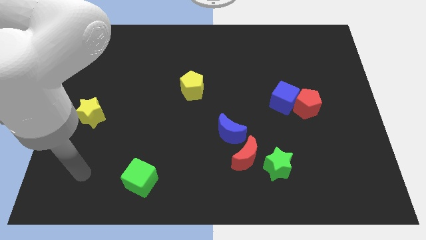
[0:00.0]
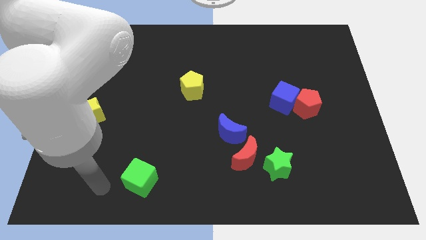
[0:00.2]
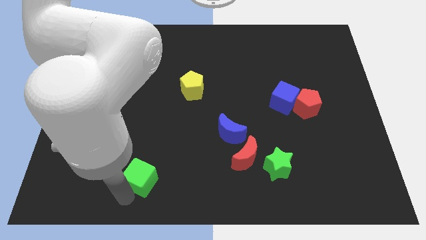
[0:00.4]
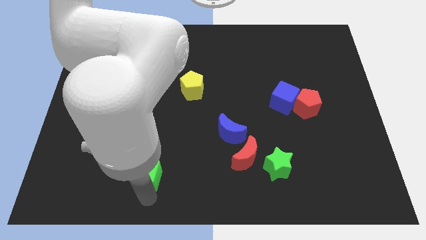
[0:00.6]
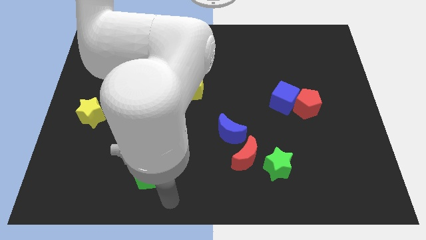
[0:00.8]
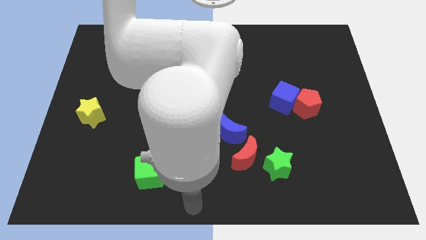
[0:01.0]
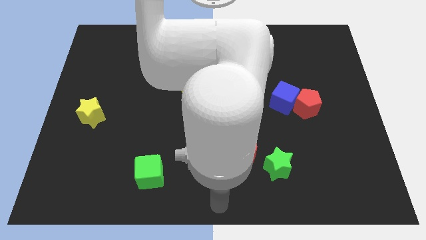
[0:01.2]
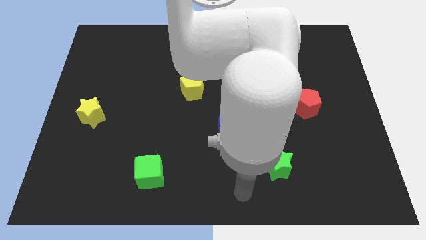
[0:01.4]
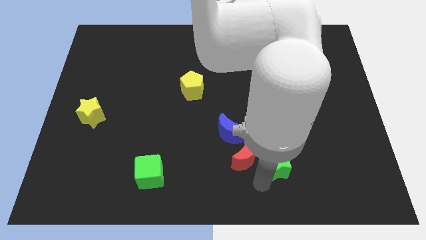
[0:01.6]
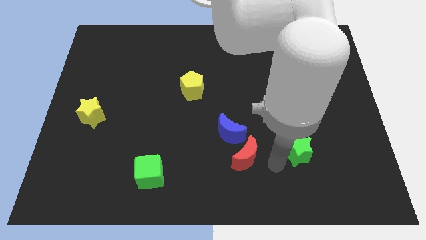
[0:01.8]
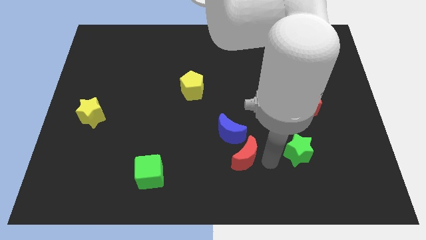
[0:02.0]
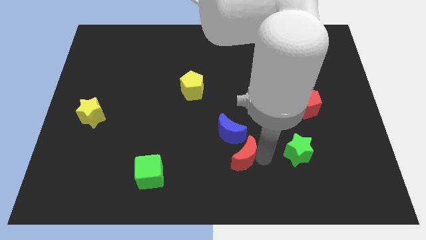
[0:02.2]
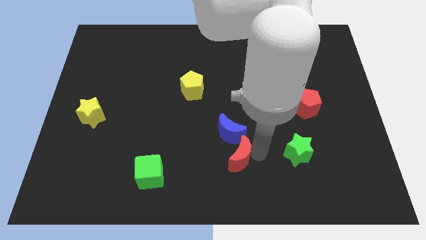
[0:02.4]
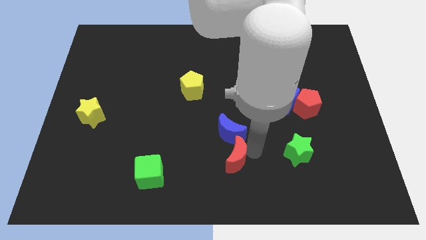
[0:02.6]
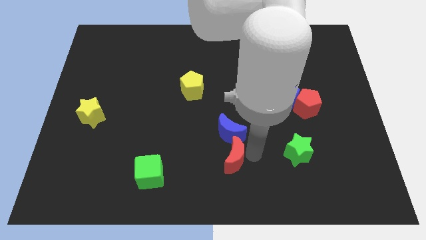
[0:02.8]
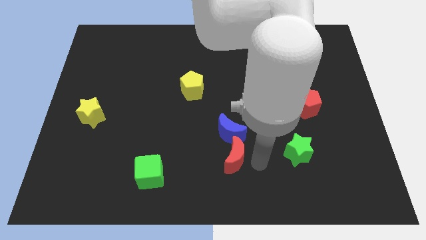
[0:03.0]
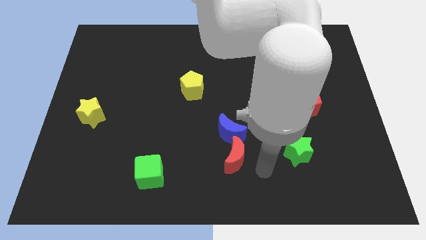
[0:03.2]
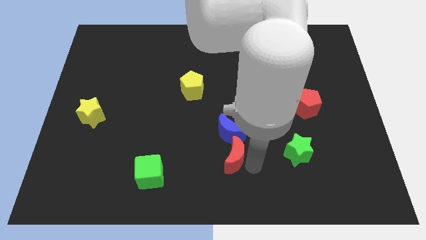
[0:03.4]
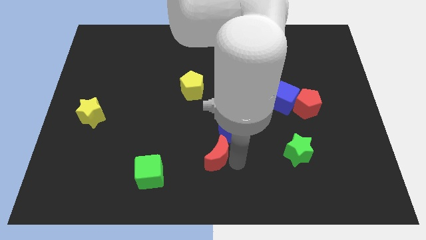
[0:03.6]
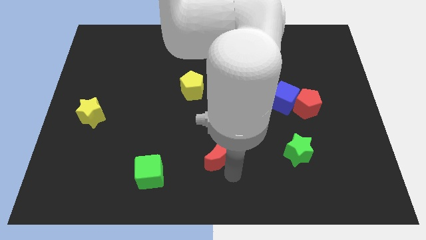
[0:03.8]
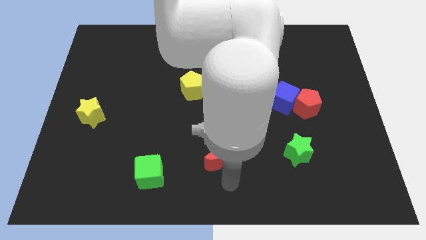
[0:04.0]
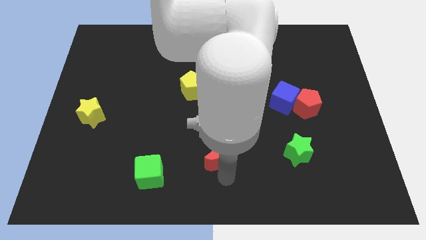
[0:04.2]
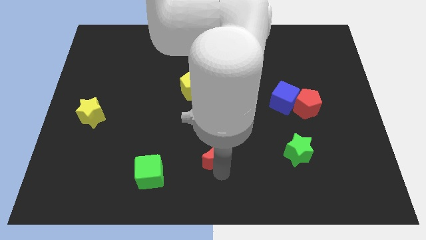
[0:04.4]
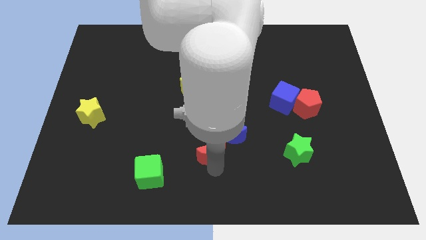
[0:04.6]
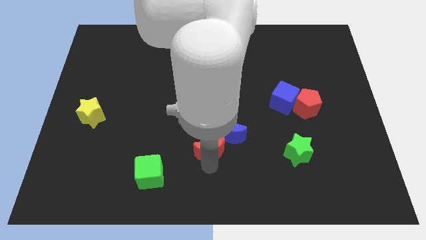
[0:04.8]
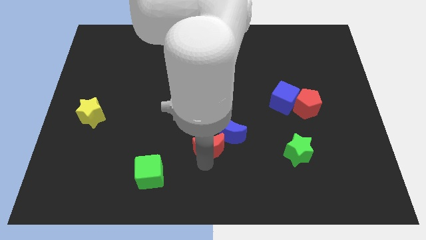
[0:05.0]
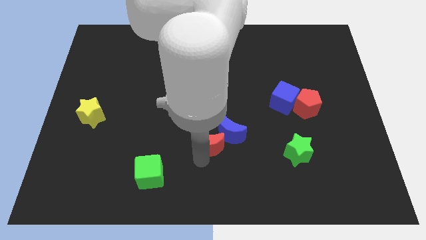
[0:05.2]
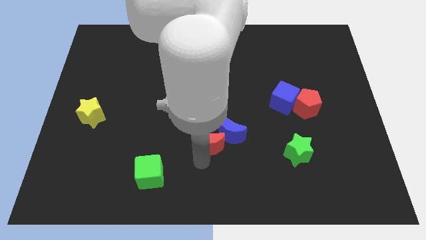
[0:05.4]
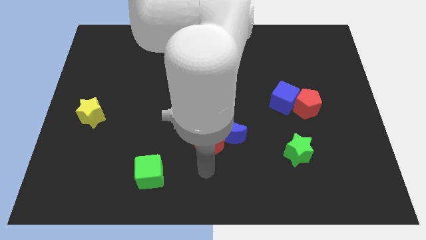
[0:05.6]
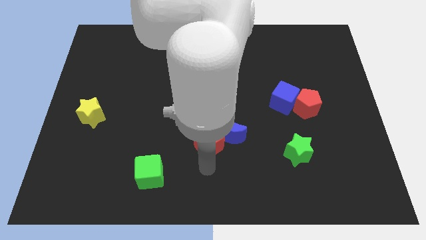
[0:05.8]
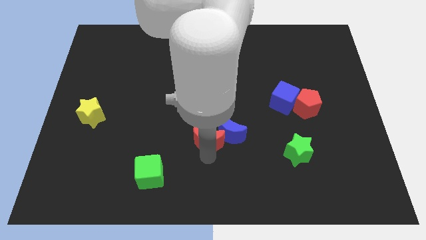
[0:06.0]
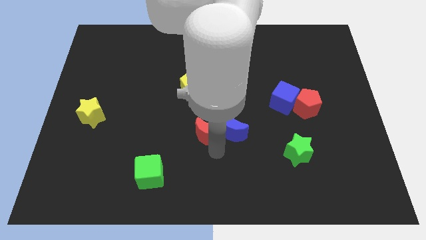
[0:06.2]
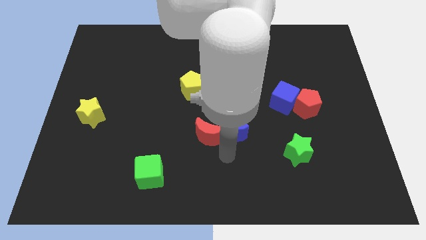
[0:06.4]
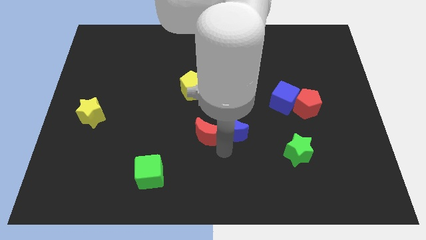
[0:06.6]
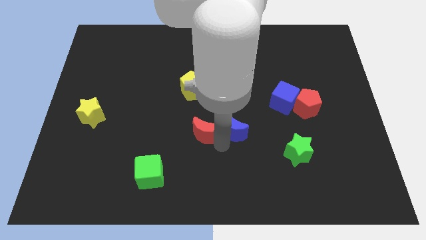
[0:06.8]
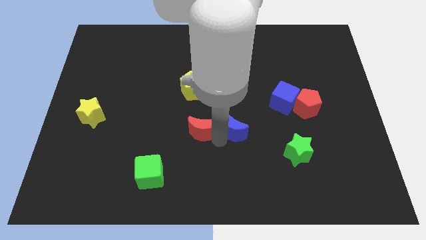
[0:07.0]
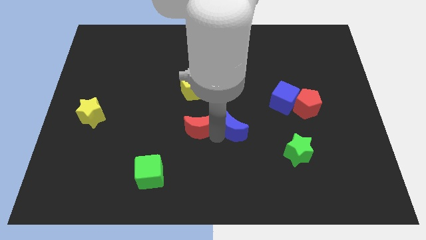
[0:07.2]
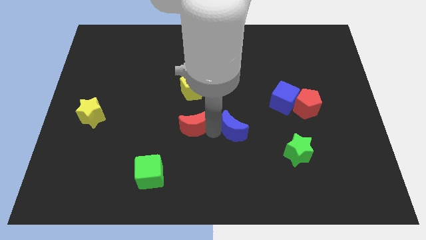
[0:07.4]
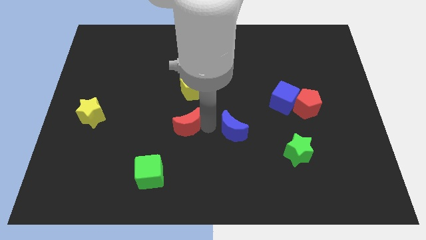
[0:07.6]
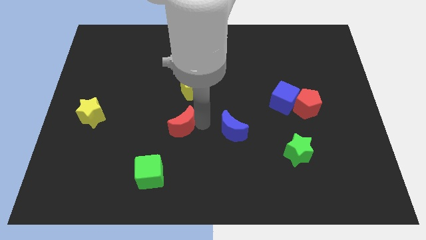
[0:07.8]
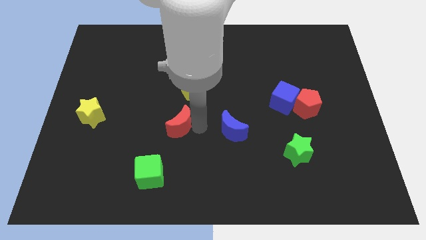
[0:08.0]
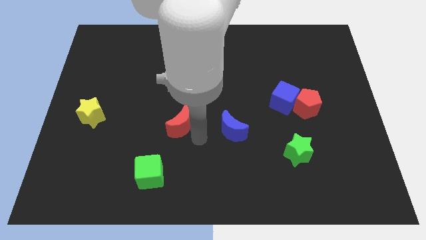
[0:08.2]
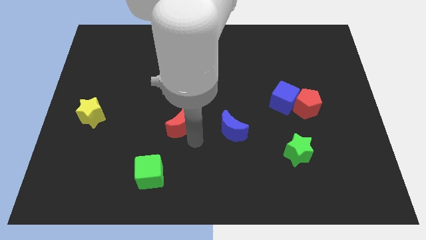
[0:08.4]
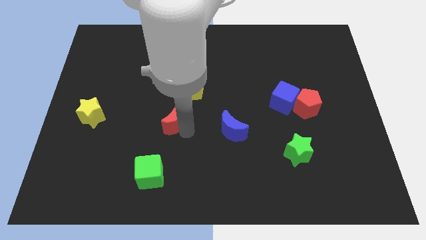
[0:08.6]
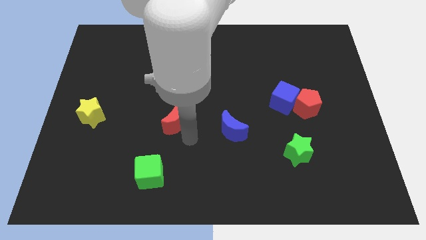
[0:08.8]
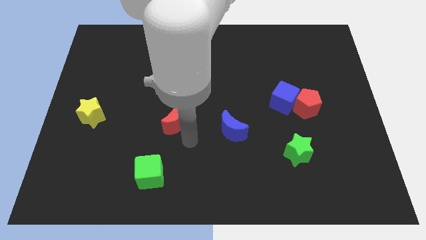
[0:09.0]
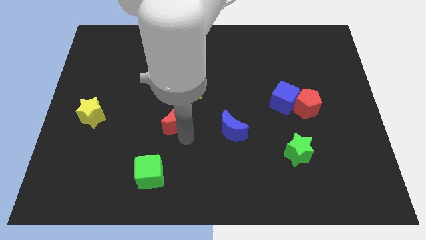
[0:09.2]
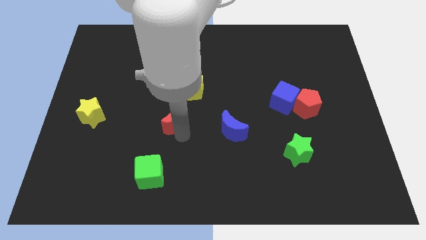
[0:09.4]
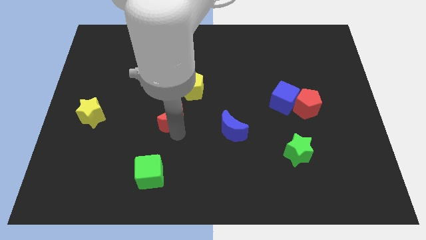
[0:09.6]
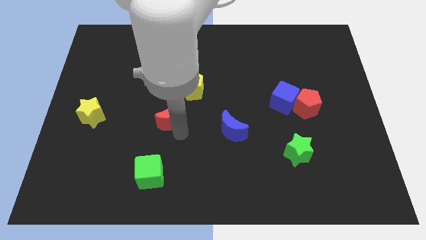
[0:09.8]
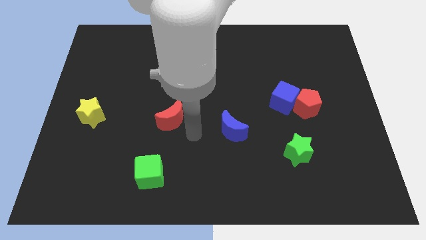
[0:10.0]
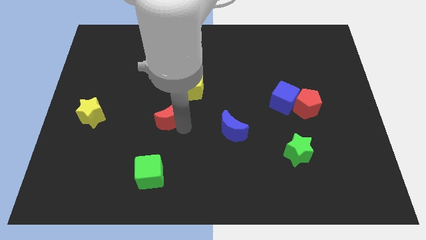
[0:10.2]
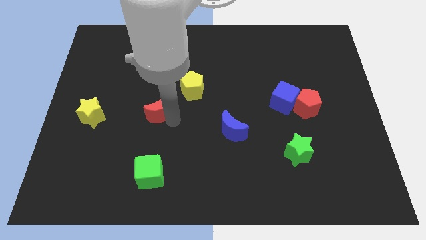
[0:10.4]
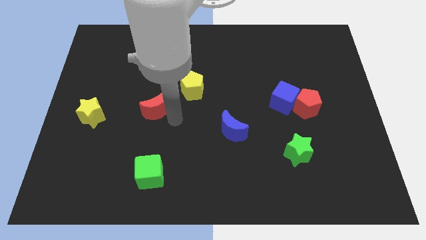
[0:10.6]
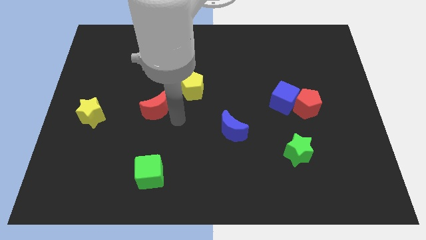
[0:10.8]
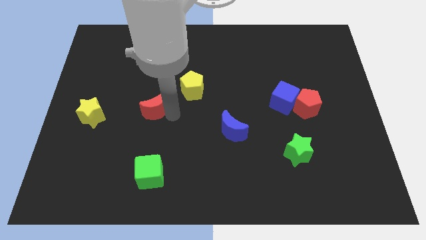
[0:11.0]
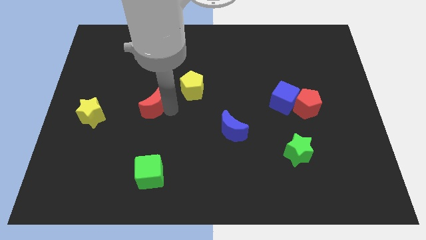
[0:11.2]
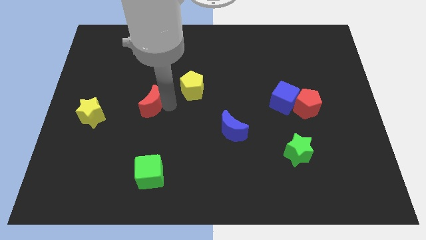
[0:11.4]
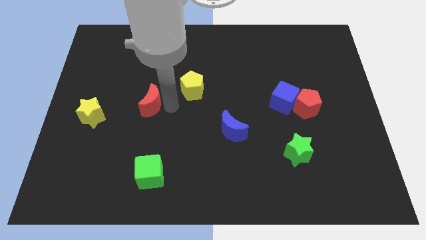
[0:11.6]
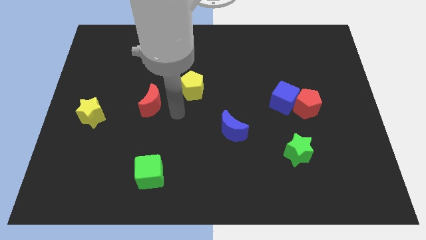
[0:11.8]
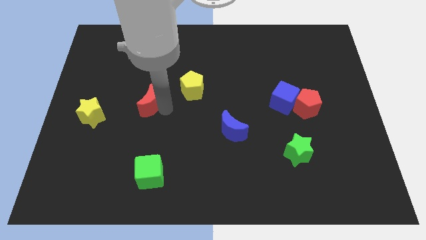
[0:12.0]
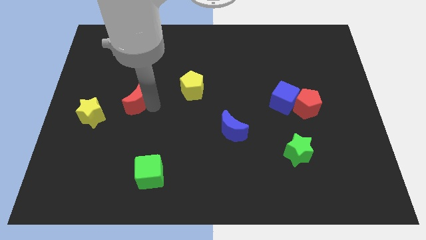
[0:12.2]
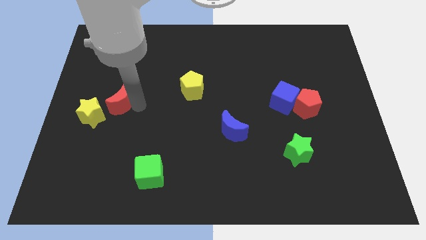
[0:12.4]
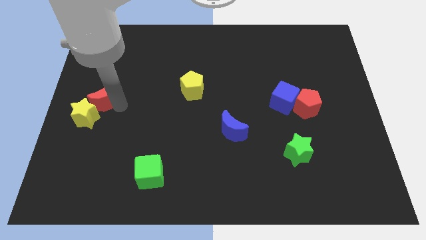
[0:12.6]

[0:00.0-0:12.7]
push the red moon to the top side of the yellow star

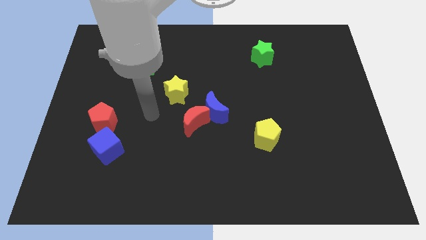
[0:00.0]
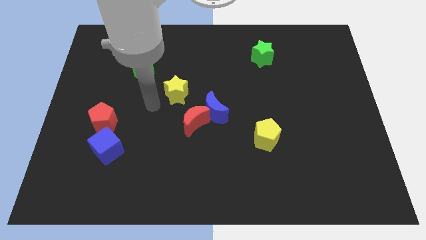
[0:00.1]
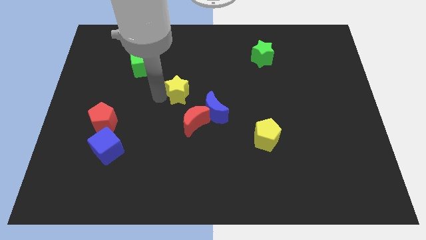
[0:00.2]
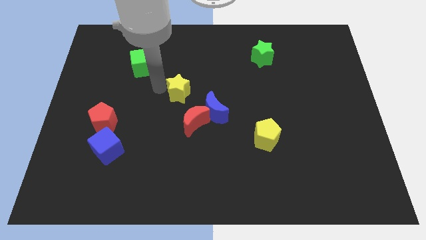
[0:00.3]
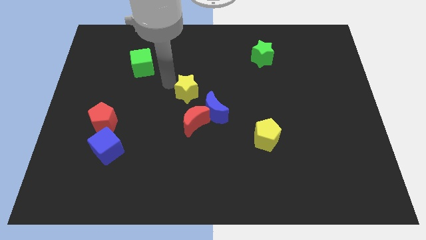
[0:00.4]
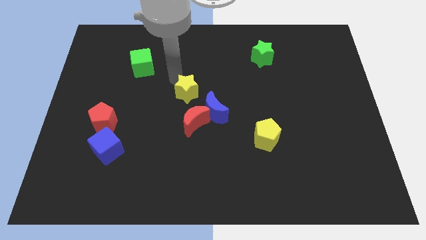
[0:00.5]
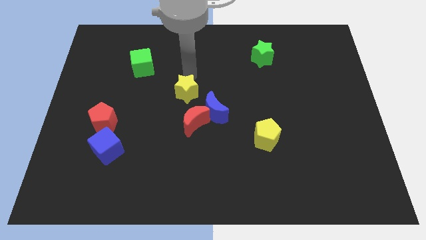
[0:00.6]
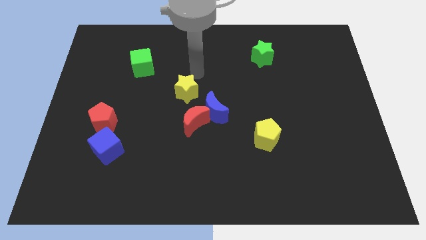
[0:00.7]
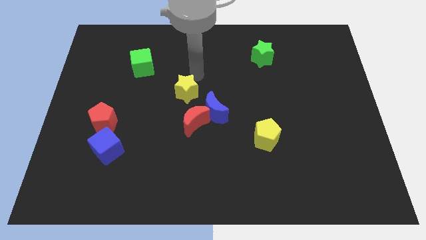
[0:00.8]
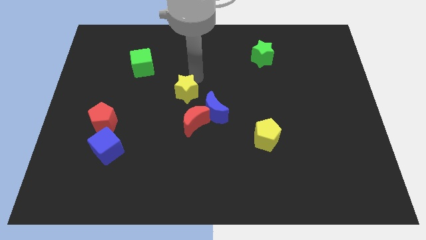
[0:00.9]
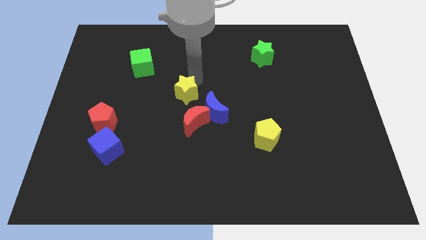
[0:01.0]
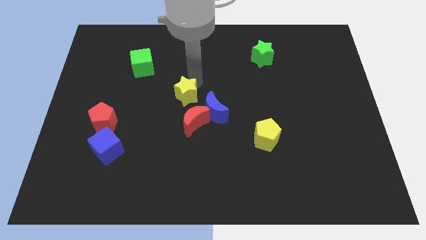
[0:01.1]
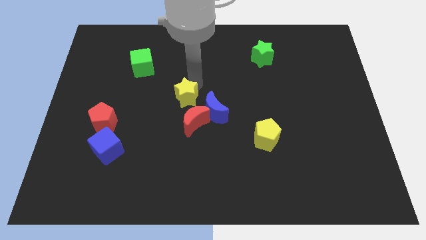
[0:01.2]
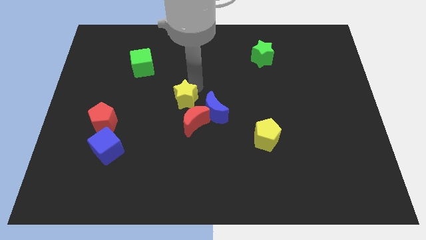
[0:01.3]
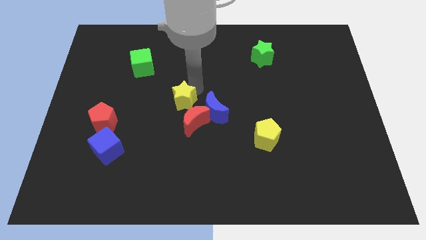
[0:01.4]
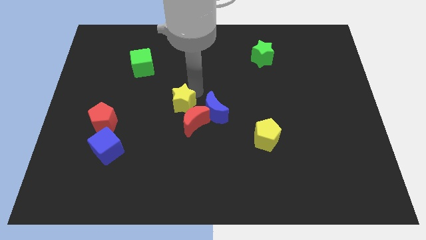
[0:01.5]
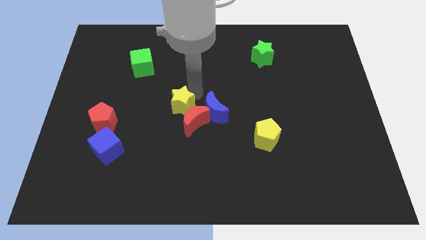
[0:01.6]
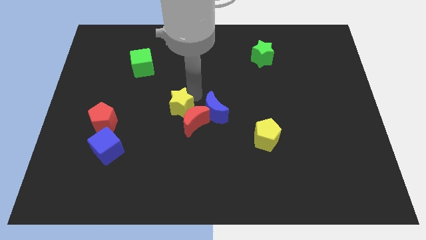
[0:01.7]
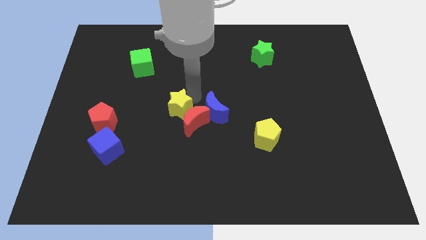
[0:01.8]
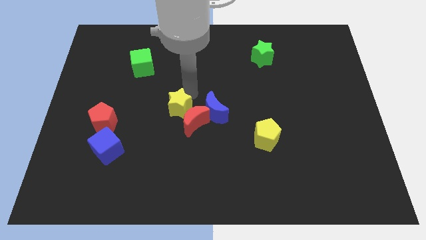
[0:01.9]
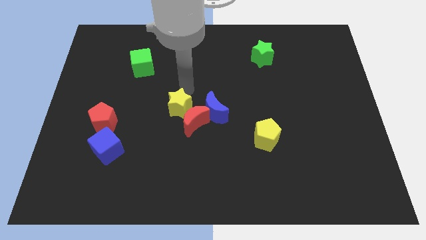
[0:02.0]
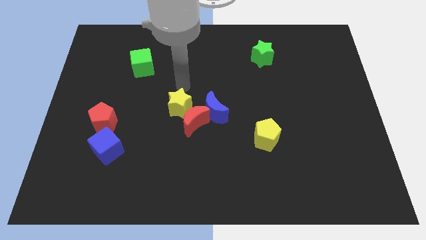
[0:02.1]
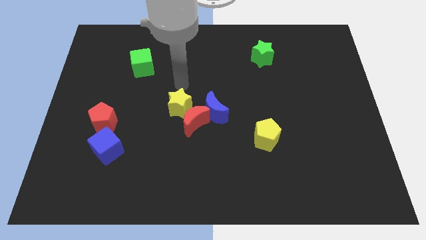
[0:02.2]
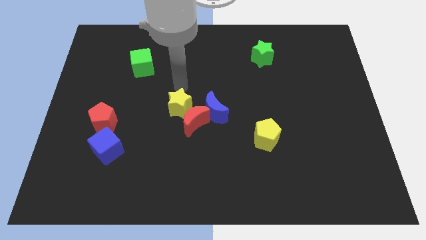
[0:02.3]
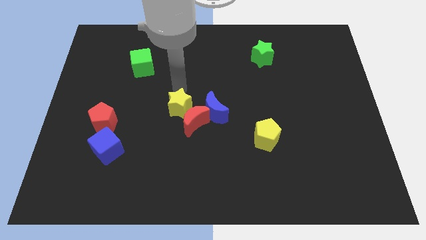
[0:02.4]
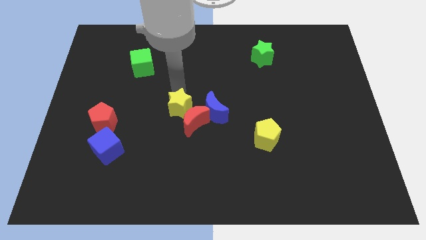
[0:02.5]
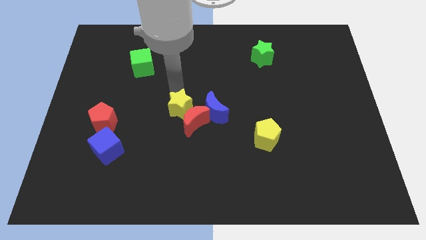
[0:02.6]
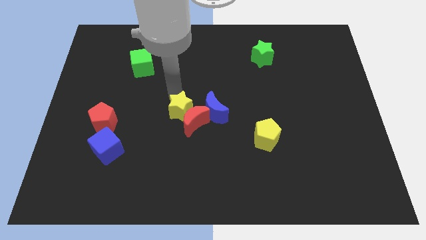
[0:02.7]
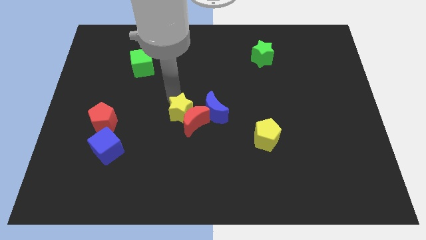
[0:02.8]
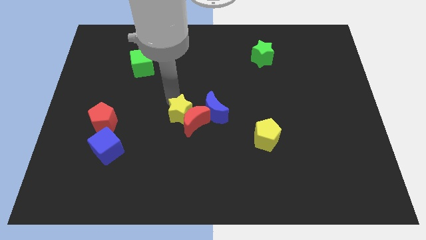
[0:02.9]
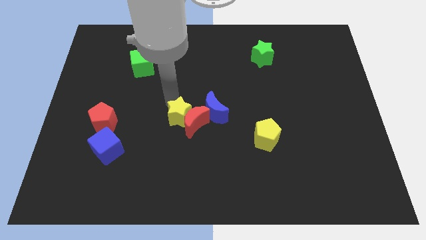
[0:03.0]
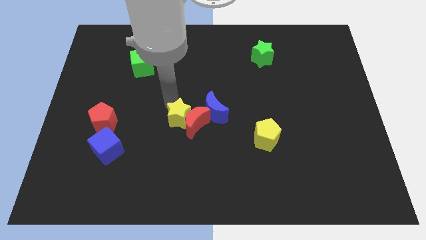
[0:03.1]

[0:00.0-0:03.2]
put the yellow star diagonally down and to the left of the blue moon
